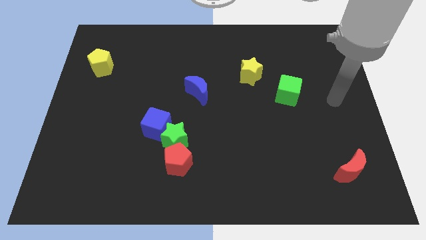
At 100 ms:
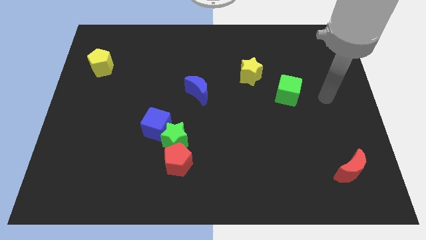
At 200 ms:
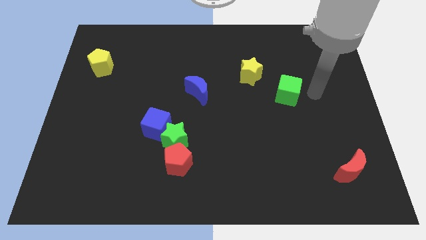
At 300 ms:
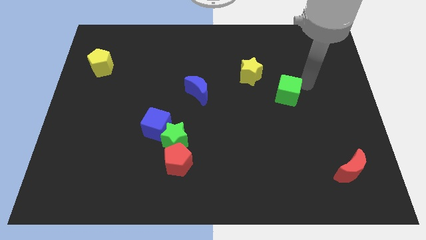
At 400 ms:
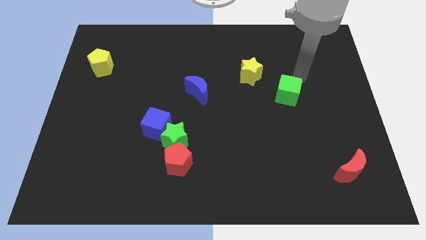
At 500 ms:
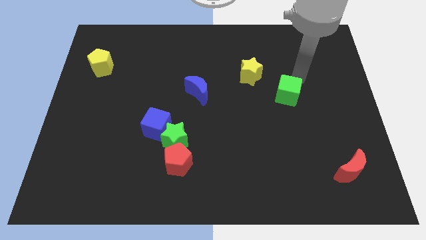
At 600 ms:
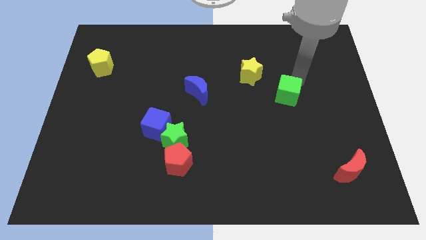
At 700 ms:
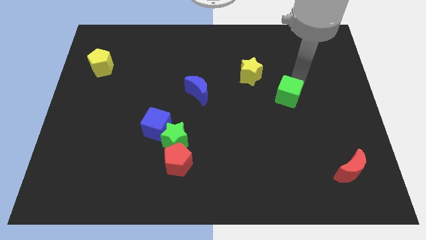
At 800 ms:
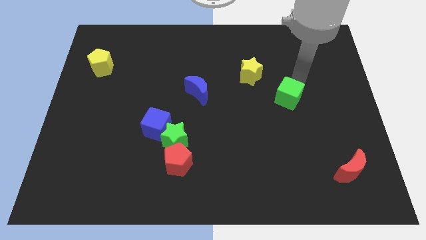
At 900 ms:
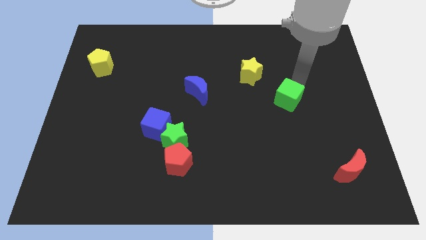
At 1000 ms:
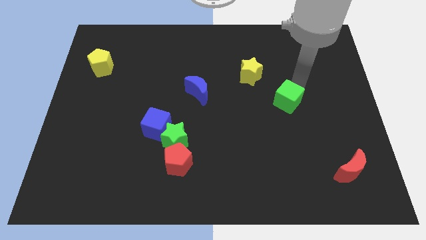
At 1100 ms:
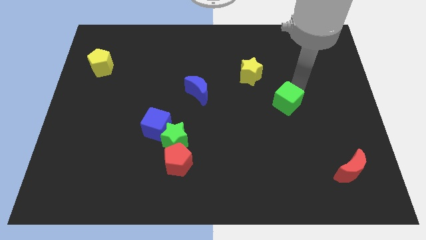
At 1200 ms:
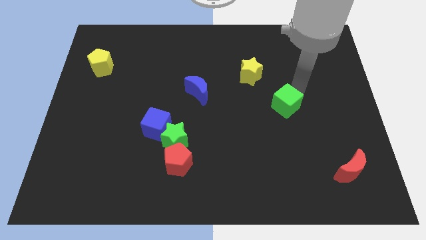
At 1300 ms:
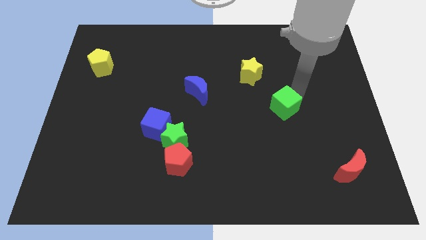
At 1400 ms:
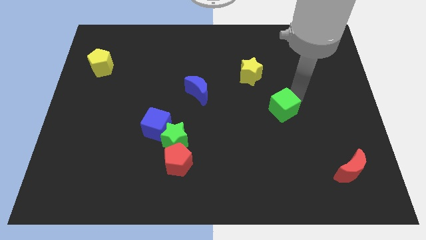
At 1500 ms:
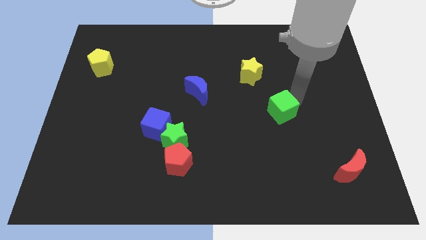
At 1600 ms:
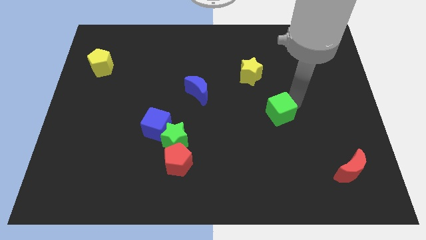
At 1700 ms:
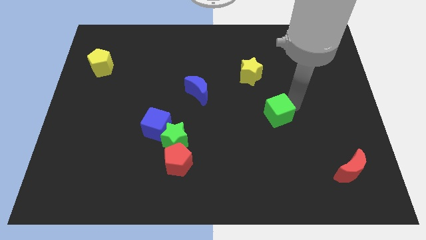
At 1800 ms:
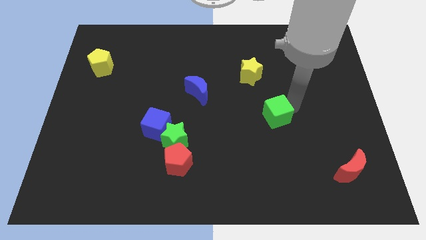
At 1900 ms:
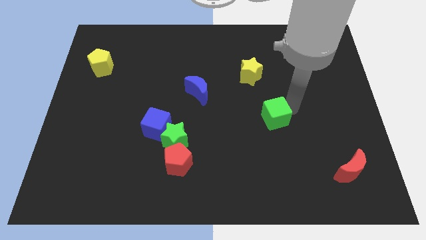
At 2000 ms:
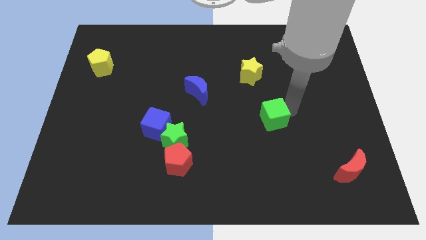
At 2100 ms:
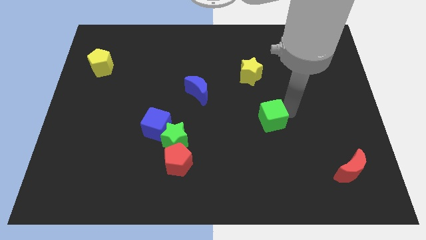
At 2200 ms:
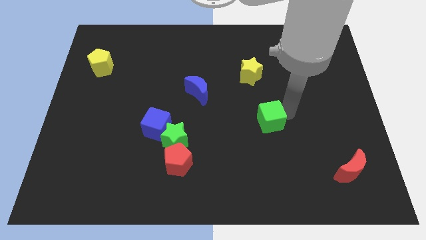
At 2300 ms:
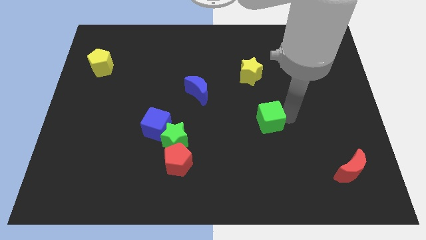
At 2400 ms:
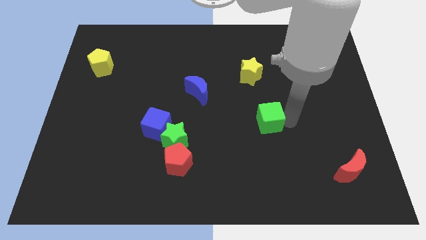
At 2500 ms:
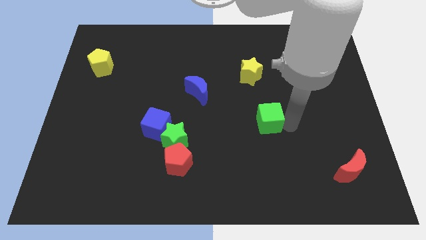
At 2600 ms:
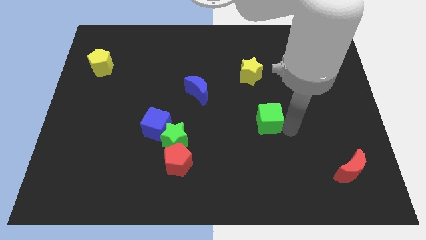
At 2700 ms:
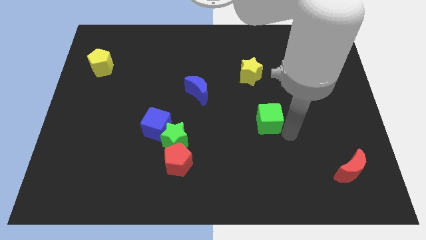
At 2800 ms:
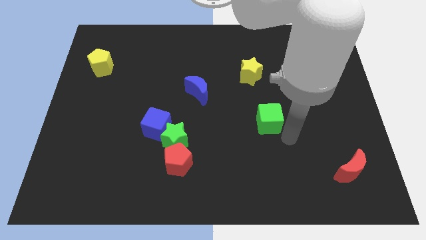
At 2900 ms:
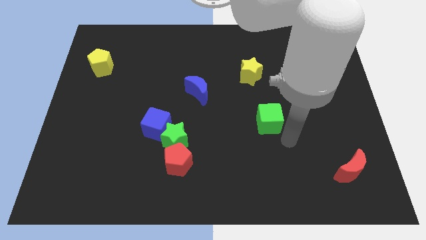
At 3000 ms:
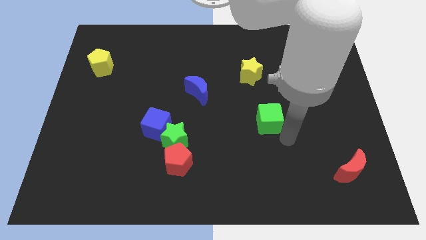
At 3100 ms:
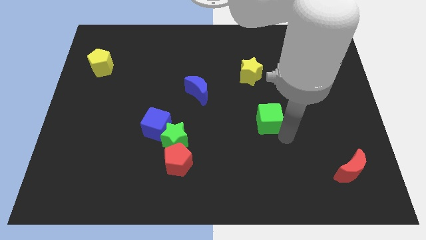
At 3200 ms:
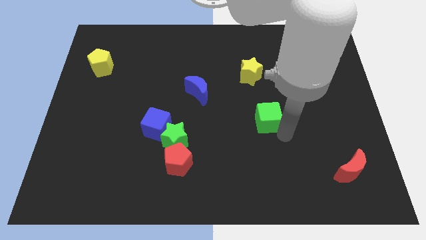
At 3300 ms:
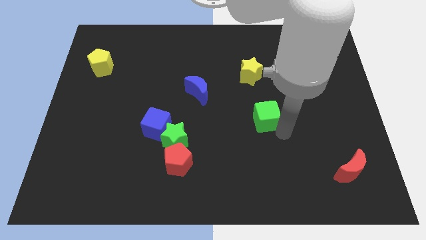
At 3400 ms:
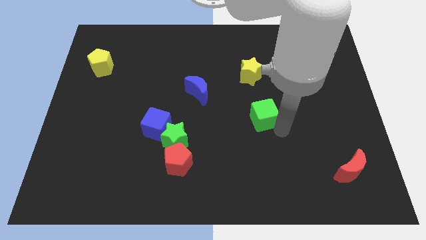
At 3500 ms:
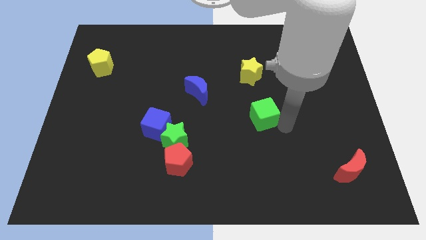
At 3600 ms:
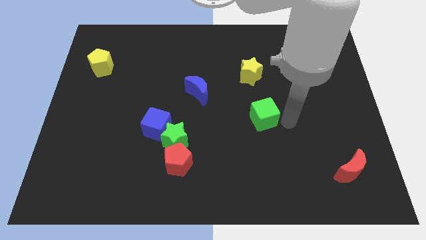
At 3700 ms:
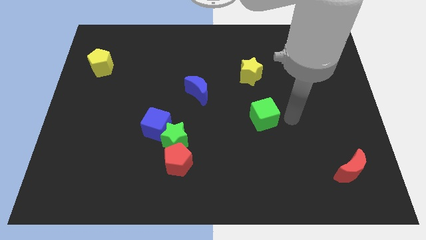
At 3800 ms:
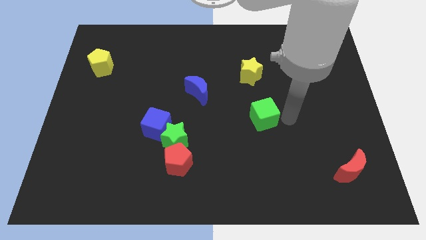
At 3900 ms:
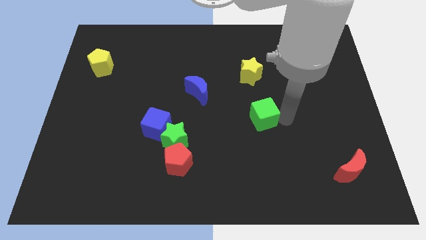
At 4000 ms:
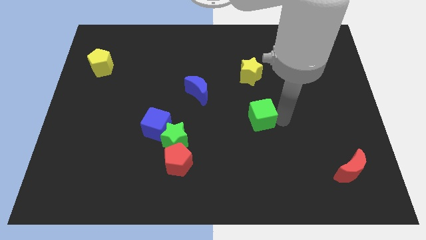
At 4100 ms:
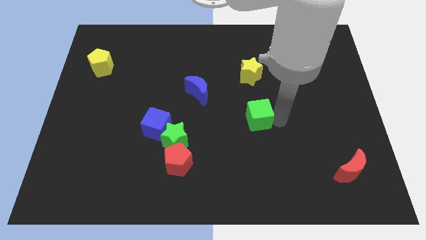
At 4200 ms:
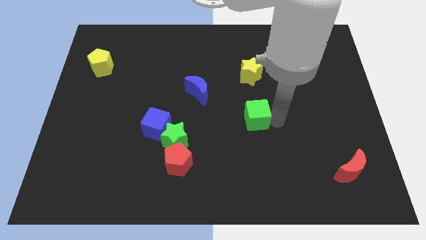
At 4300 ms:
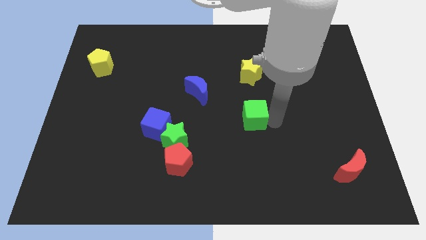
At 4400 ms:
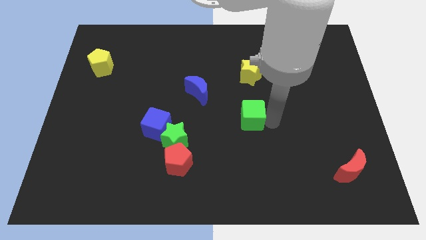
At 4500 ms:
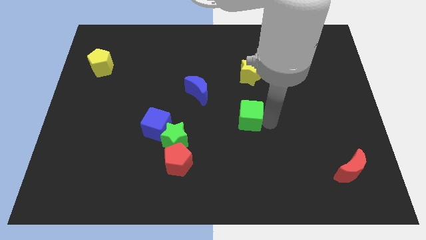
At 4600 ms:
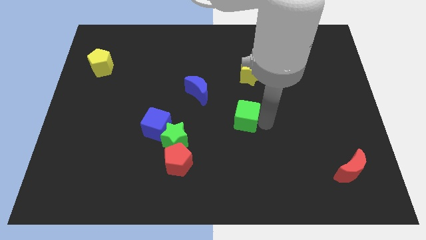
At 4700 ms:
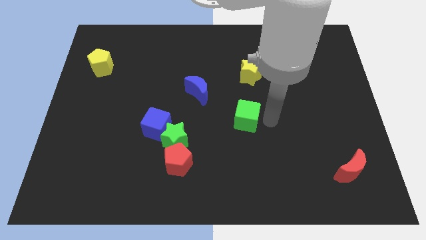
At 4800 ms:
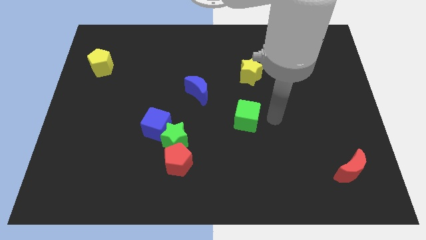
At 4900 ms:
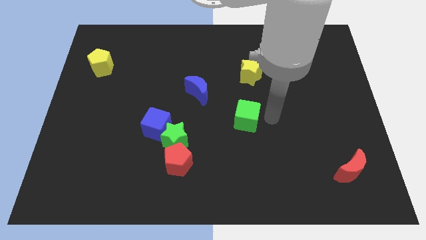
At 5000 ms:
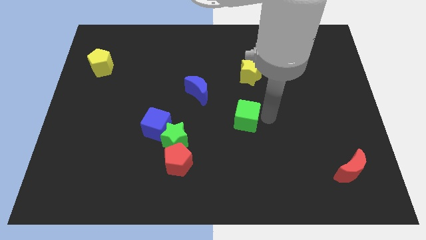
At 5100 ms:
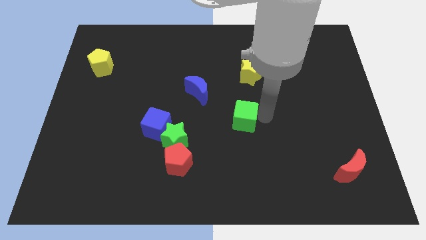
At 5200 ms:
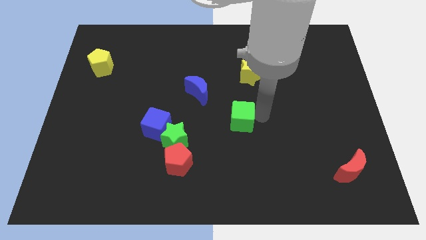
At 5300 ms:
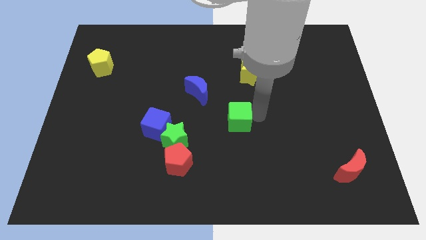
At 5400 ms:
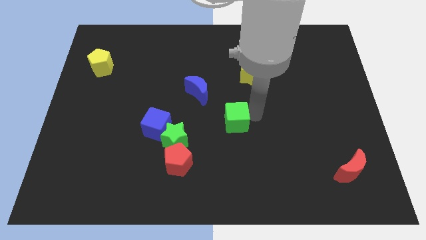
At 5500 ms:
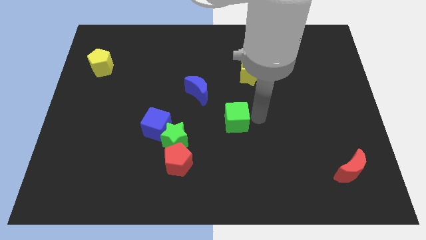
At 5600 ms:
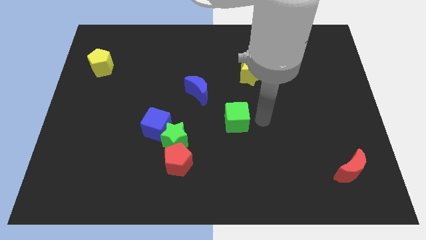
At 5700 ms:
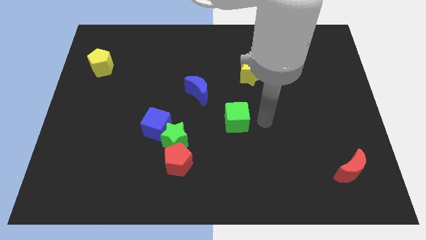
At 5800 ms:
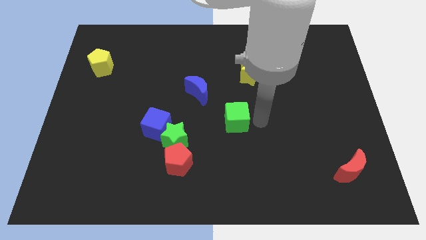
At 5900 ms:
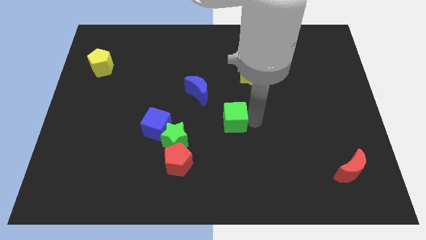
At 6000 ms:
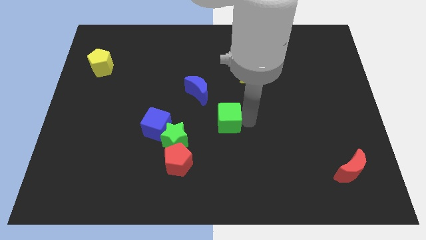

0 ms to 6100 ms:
put the green cube to the right of the blue cube

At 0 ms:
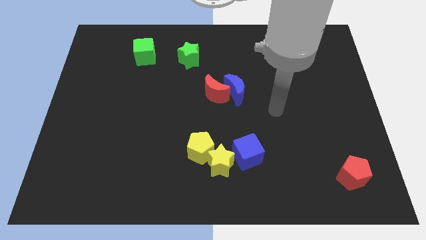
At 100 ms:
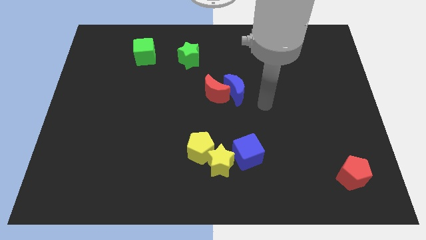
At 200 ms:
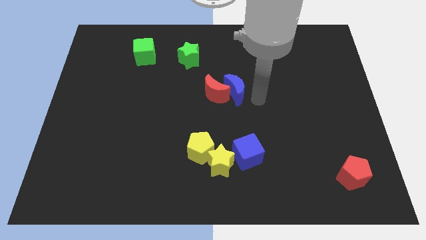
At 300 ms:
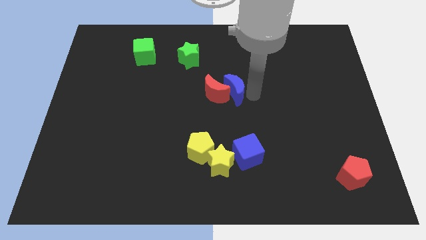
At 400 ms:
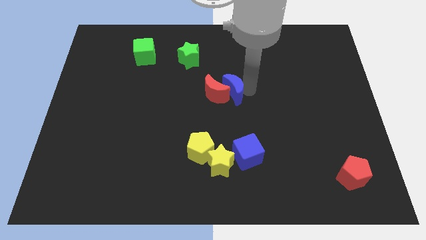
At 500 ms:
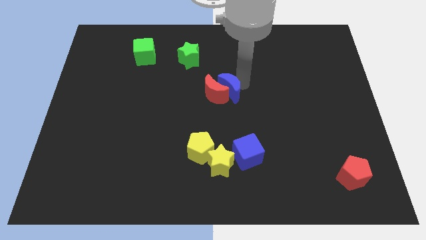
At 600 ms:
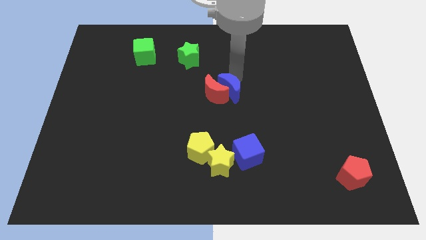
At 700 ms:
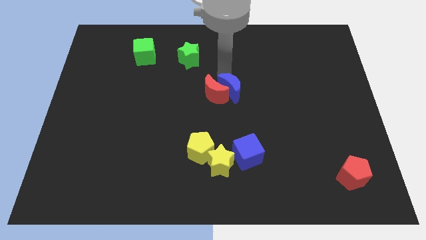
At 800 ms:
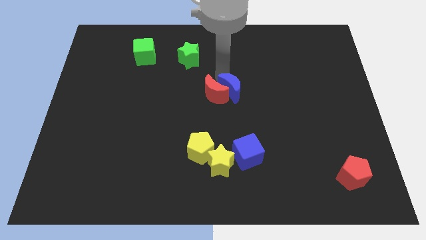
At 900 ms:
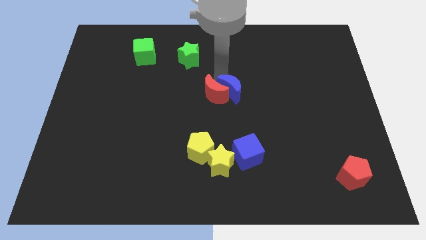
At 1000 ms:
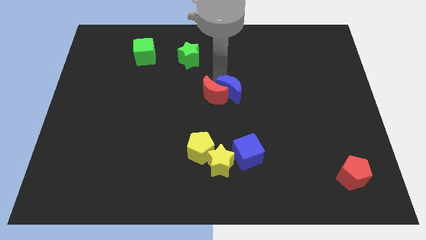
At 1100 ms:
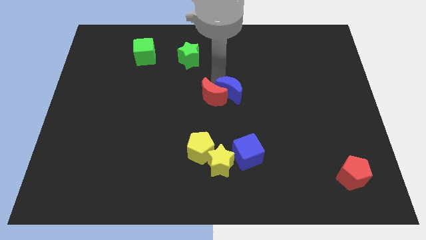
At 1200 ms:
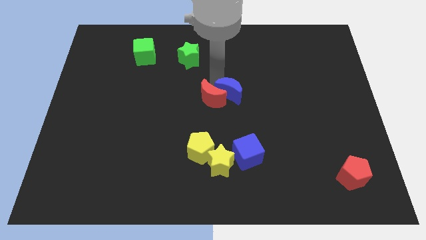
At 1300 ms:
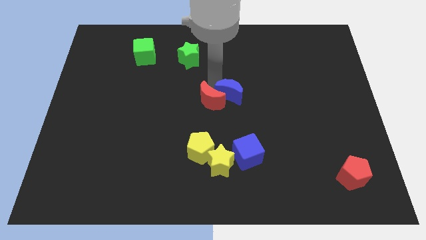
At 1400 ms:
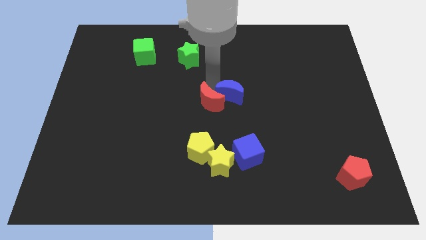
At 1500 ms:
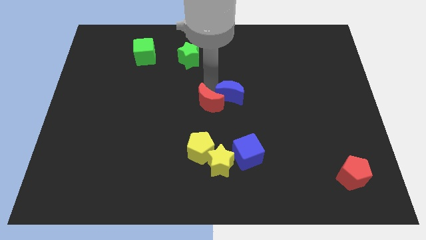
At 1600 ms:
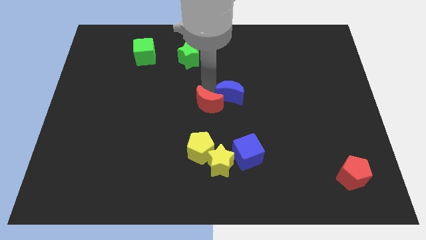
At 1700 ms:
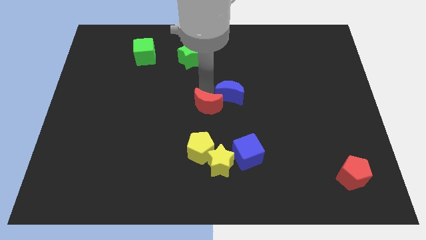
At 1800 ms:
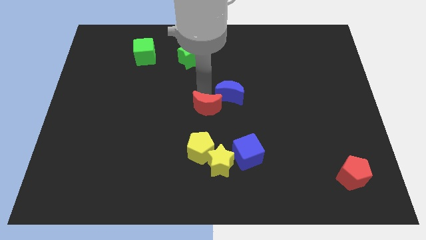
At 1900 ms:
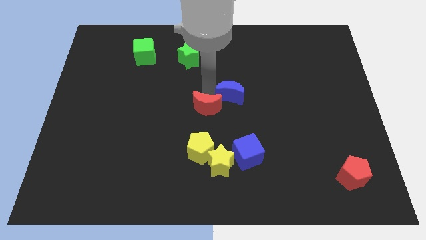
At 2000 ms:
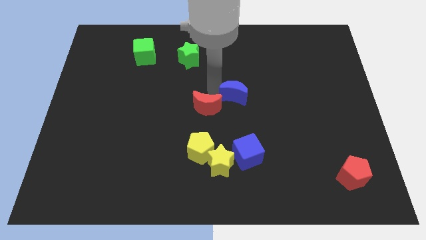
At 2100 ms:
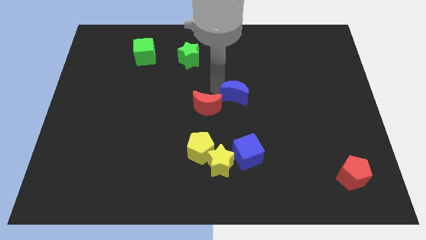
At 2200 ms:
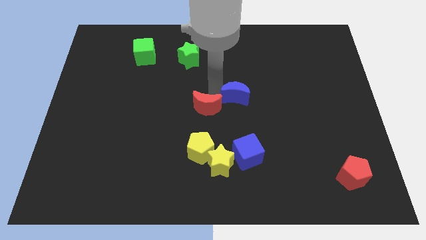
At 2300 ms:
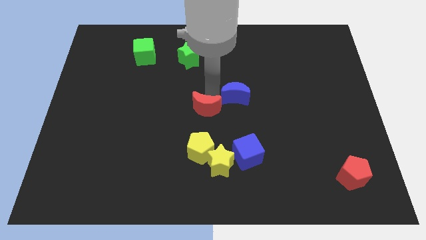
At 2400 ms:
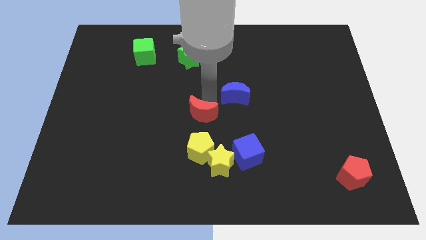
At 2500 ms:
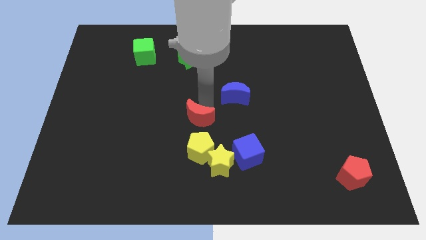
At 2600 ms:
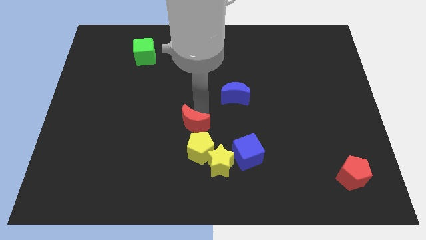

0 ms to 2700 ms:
put the red moon diagonally up and to the left of the yellow star
